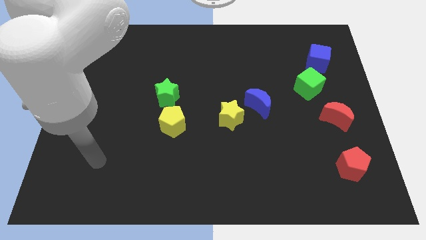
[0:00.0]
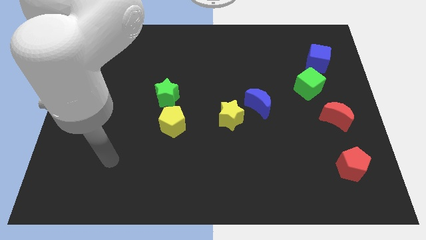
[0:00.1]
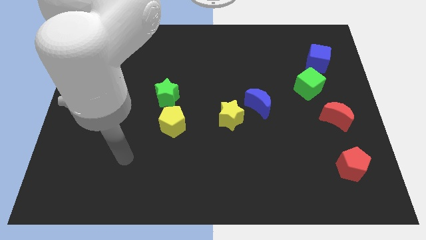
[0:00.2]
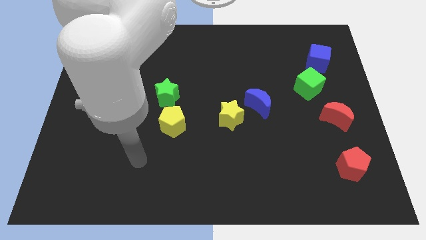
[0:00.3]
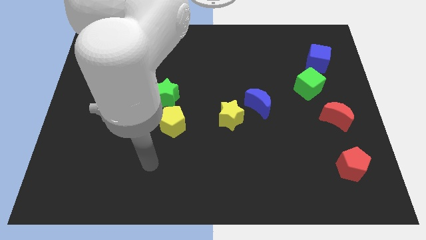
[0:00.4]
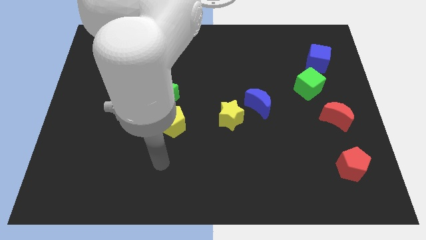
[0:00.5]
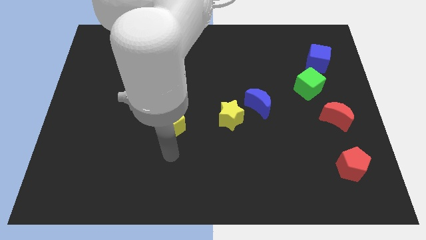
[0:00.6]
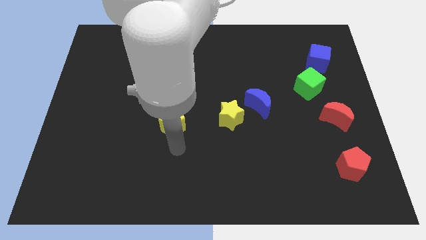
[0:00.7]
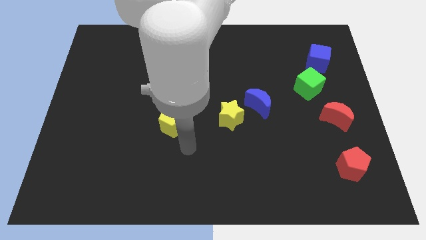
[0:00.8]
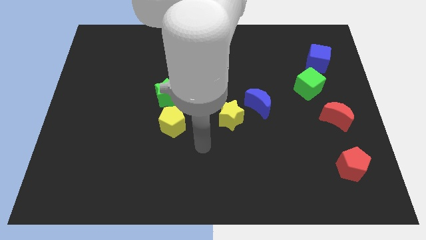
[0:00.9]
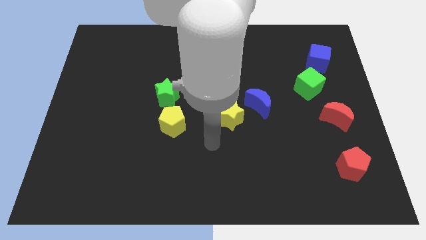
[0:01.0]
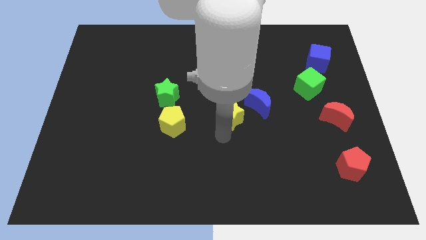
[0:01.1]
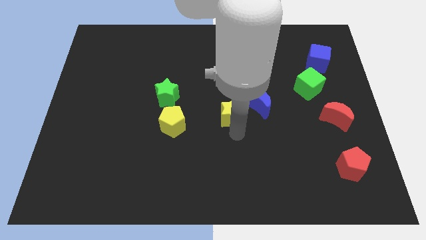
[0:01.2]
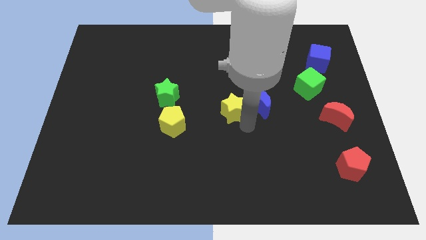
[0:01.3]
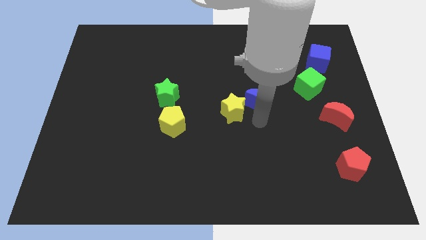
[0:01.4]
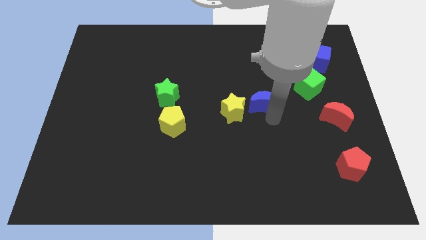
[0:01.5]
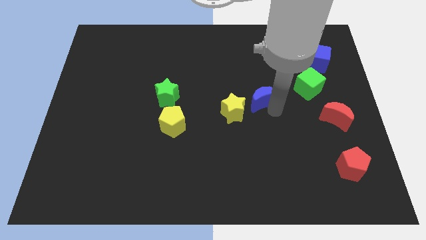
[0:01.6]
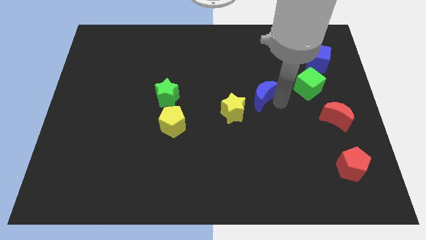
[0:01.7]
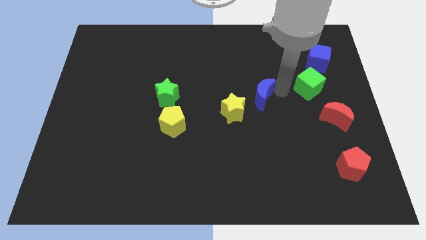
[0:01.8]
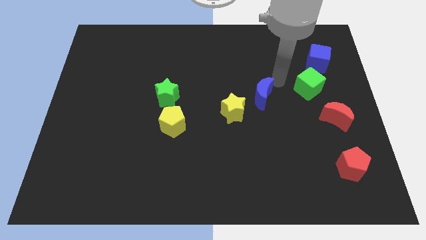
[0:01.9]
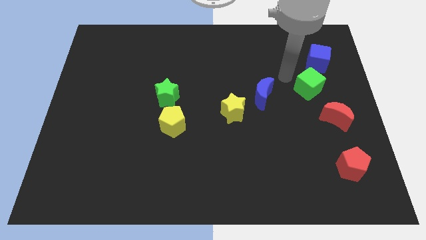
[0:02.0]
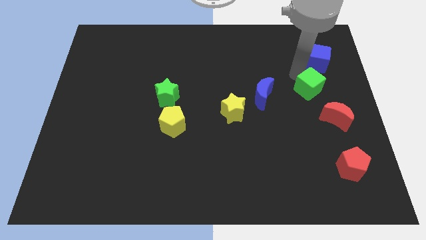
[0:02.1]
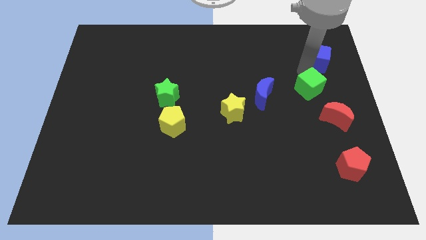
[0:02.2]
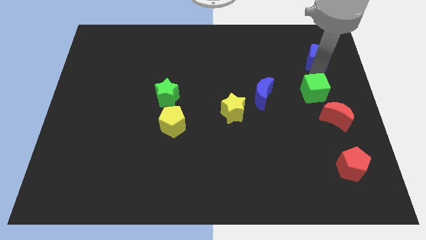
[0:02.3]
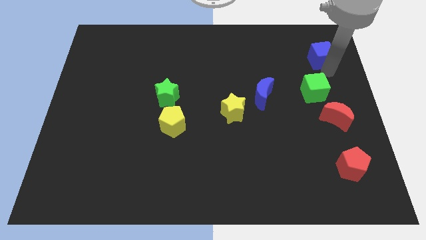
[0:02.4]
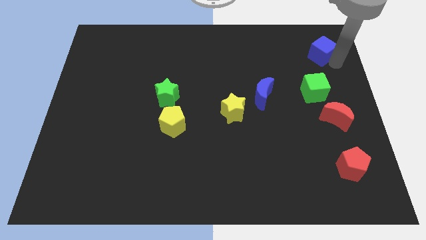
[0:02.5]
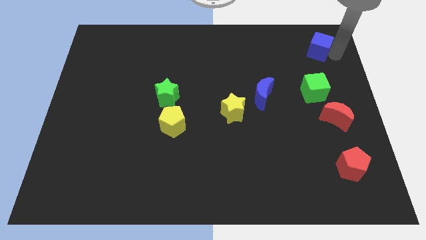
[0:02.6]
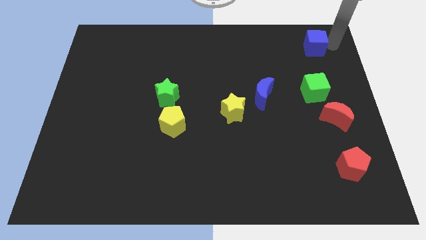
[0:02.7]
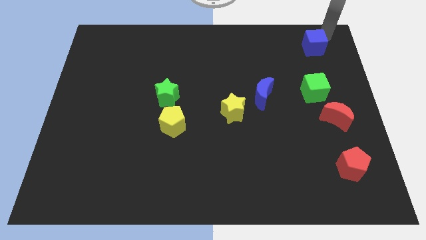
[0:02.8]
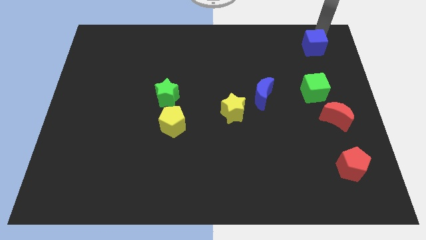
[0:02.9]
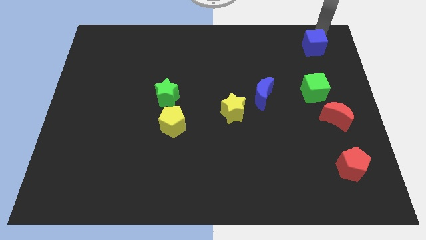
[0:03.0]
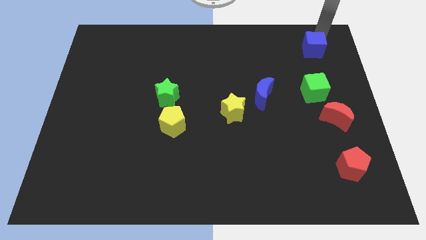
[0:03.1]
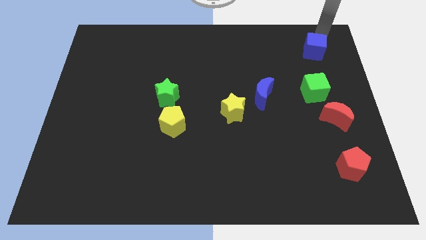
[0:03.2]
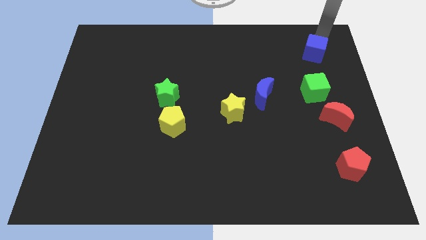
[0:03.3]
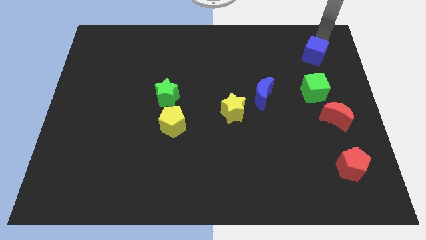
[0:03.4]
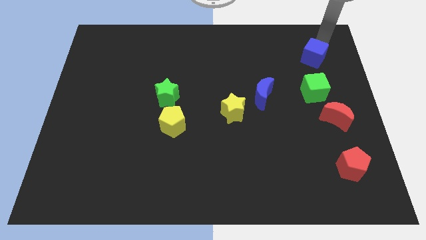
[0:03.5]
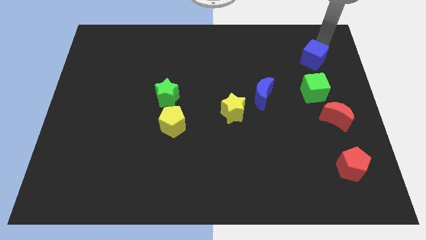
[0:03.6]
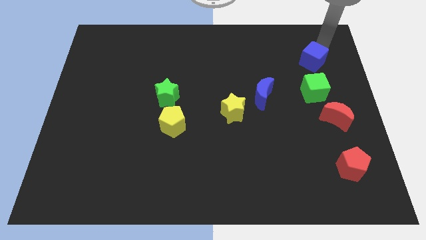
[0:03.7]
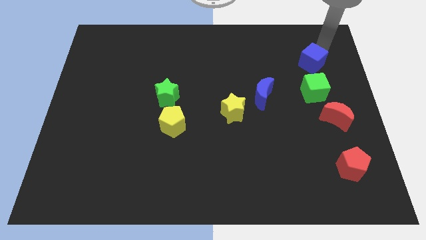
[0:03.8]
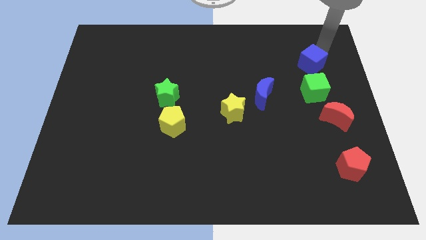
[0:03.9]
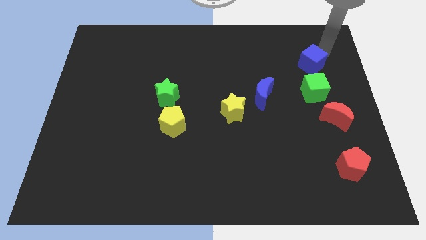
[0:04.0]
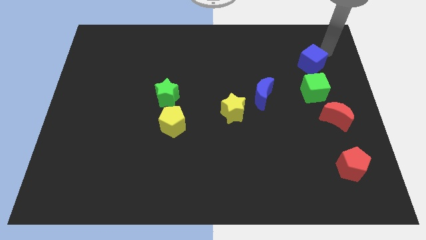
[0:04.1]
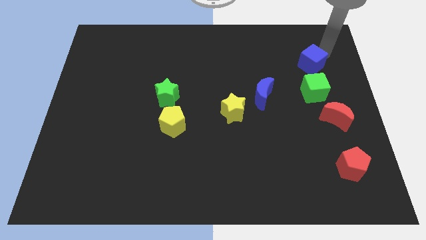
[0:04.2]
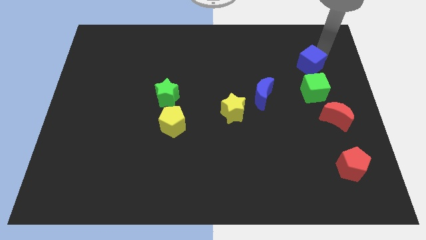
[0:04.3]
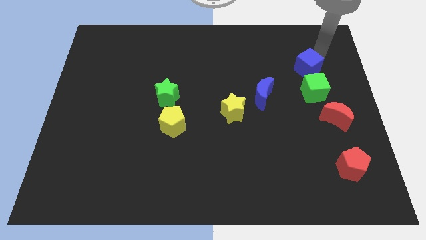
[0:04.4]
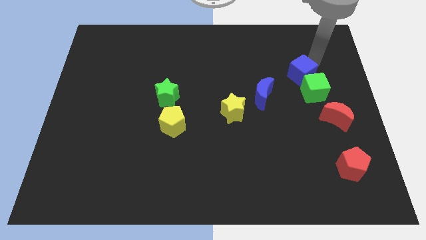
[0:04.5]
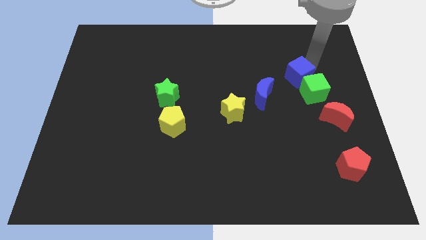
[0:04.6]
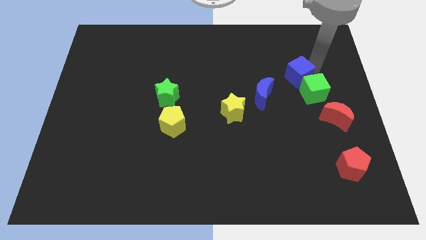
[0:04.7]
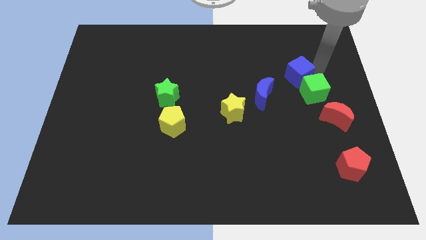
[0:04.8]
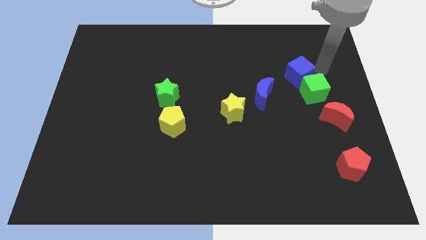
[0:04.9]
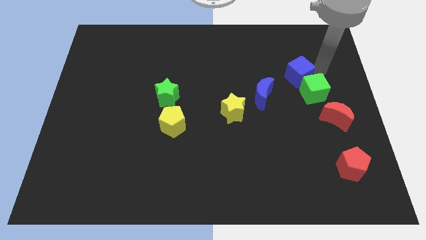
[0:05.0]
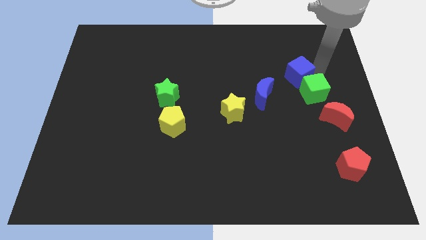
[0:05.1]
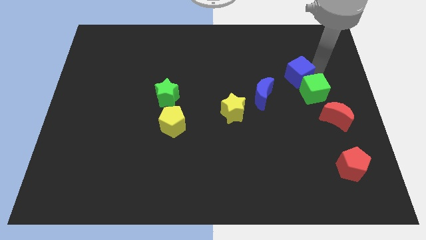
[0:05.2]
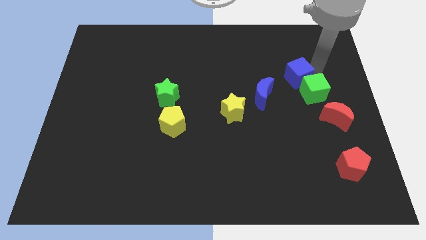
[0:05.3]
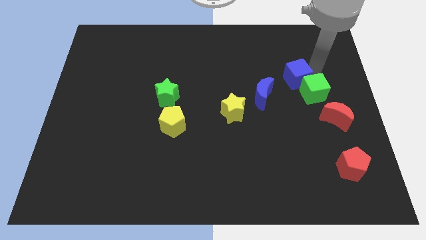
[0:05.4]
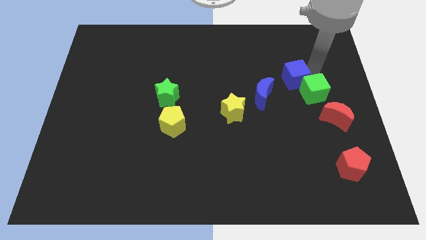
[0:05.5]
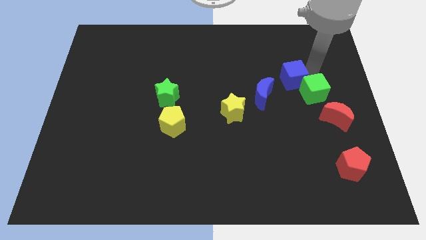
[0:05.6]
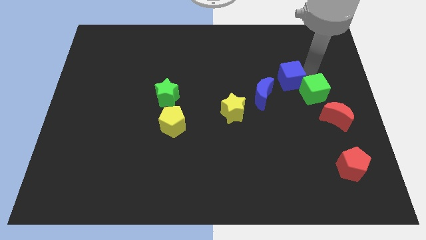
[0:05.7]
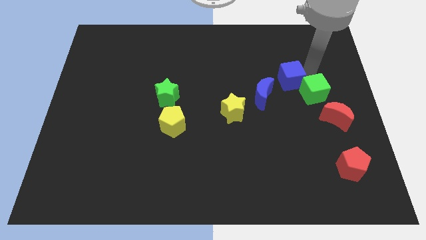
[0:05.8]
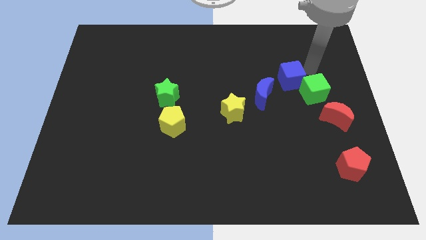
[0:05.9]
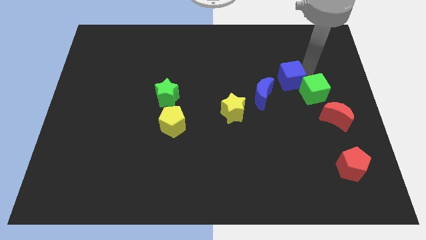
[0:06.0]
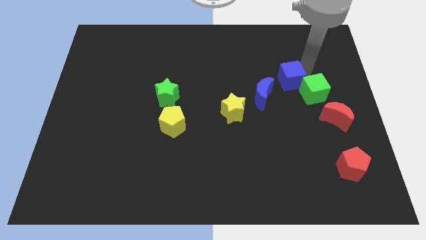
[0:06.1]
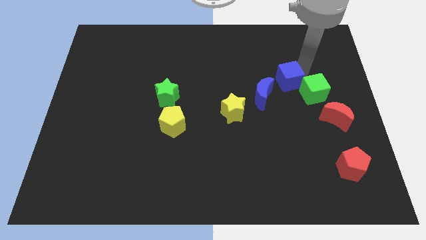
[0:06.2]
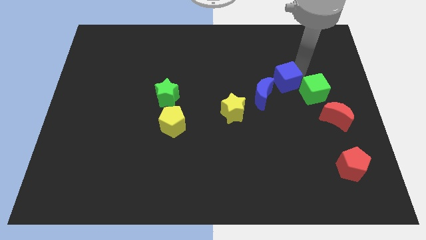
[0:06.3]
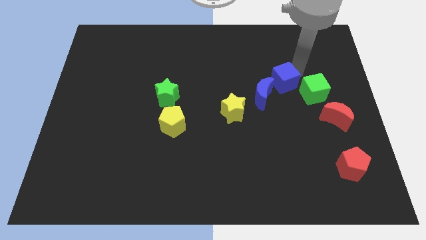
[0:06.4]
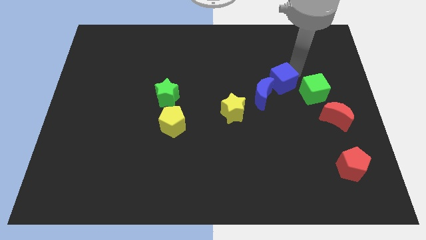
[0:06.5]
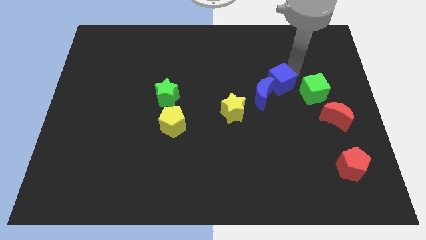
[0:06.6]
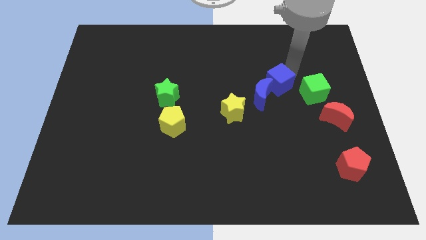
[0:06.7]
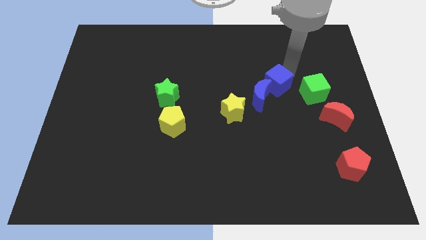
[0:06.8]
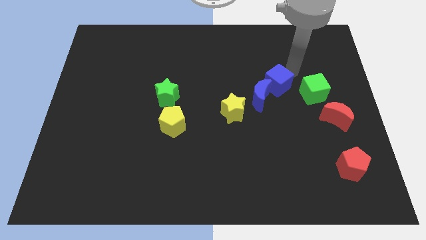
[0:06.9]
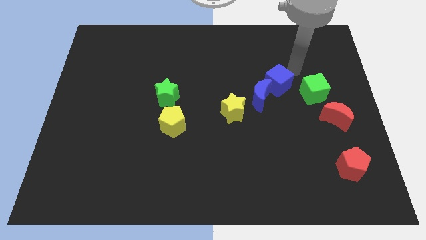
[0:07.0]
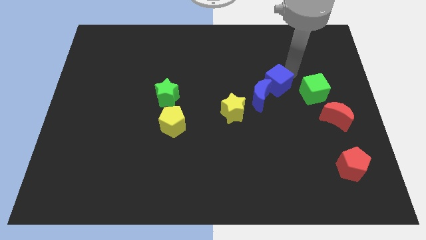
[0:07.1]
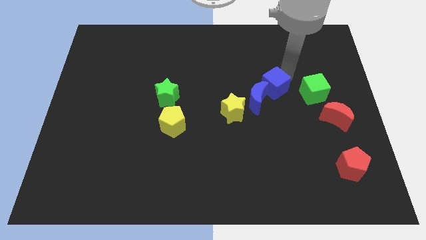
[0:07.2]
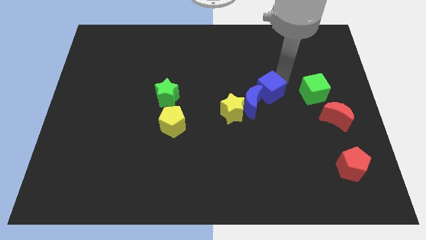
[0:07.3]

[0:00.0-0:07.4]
slide the blue cube next to the blue moon
